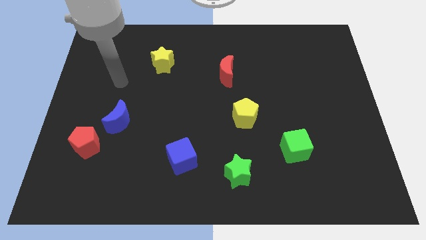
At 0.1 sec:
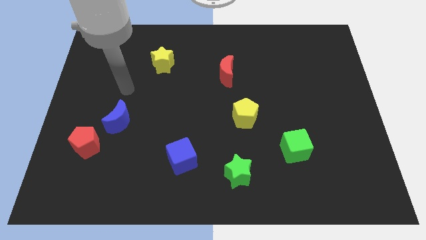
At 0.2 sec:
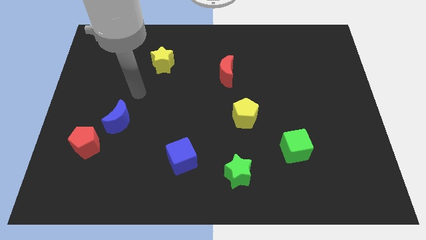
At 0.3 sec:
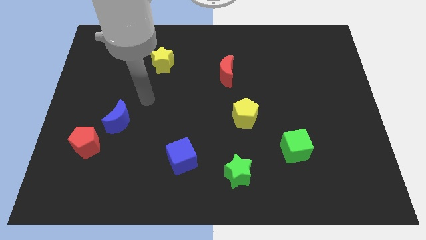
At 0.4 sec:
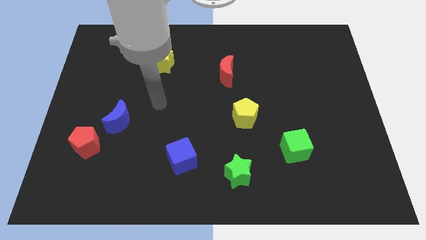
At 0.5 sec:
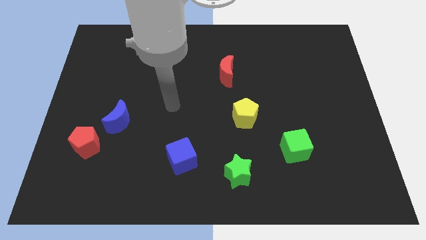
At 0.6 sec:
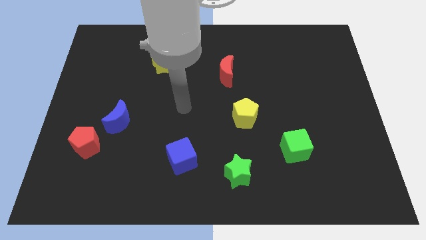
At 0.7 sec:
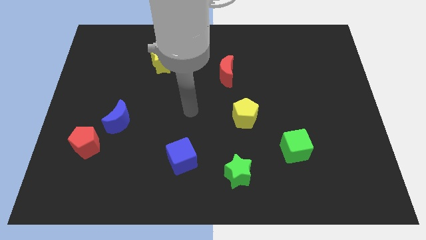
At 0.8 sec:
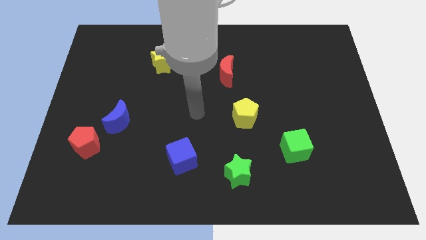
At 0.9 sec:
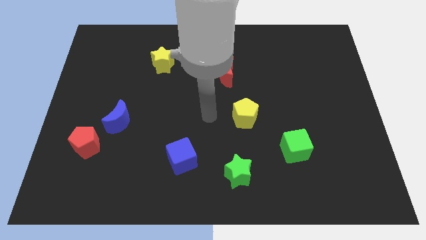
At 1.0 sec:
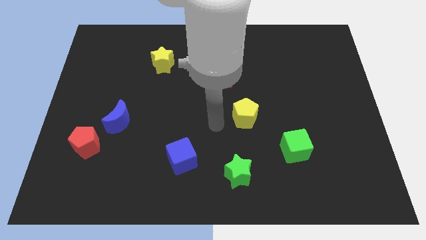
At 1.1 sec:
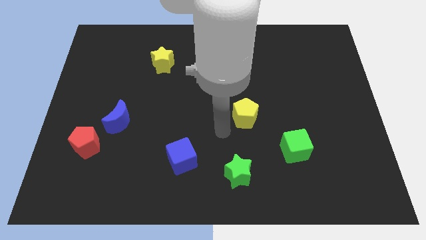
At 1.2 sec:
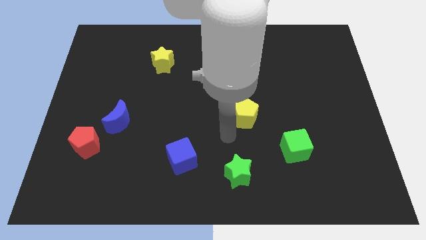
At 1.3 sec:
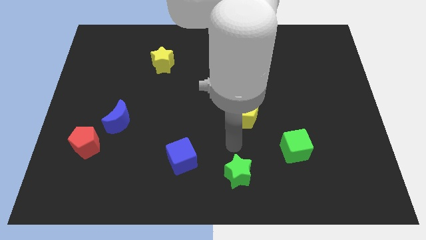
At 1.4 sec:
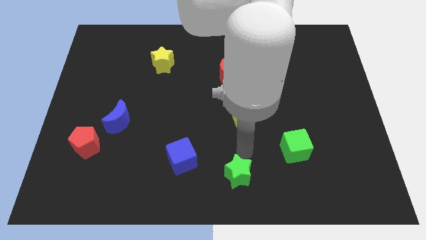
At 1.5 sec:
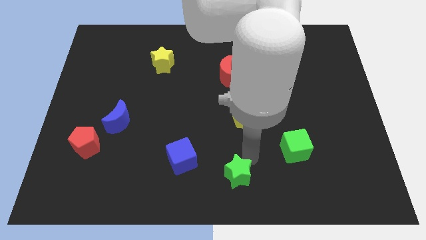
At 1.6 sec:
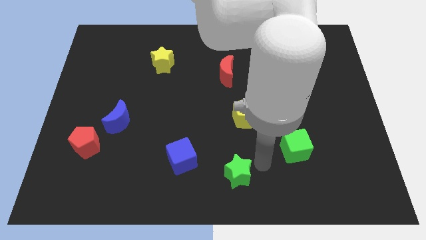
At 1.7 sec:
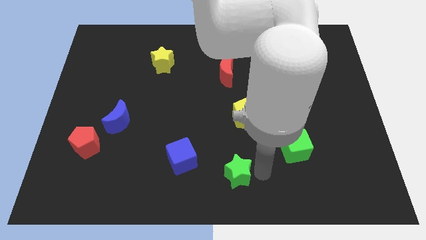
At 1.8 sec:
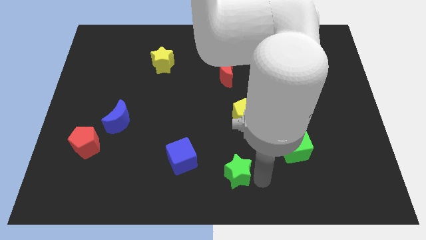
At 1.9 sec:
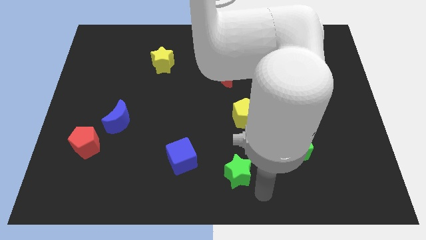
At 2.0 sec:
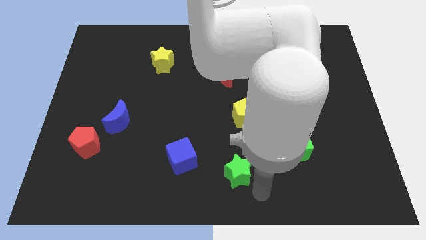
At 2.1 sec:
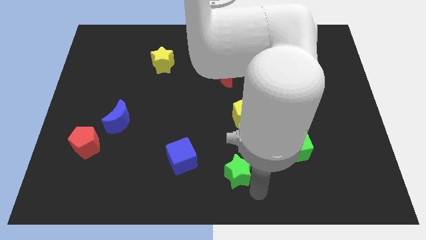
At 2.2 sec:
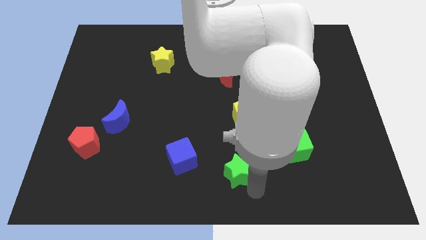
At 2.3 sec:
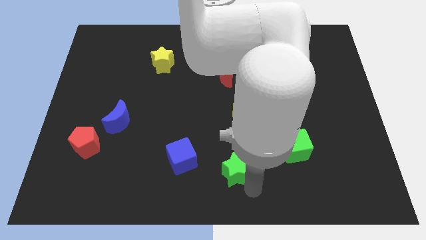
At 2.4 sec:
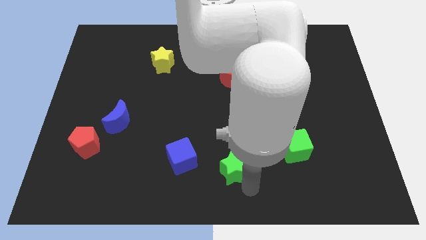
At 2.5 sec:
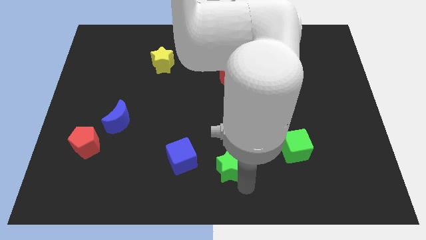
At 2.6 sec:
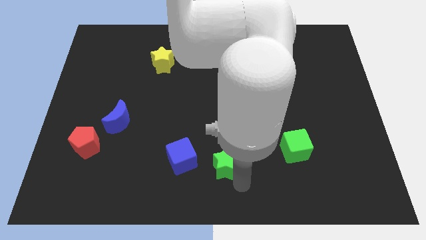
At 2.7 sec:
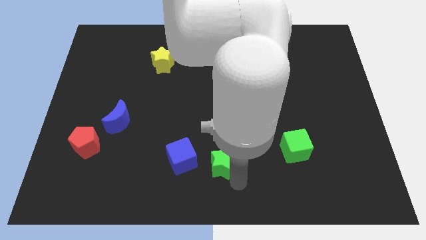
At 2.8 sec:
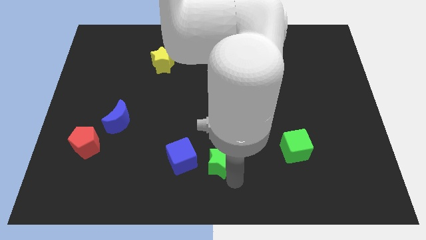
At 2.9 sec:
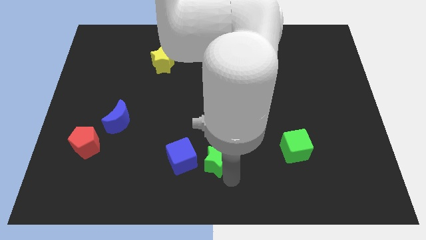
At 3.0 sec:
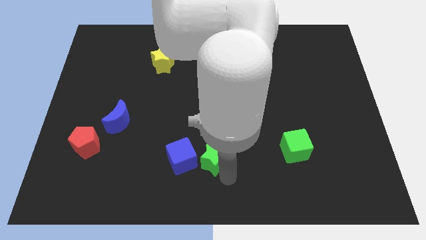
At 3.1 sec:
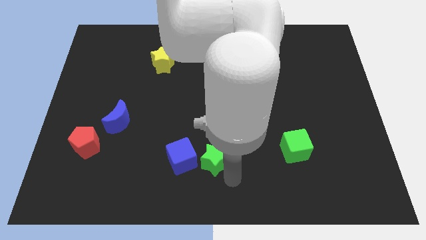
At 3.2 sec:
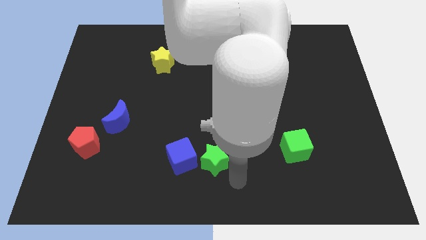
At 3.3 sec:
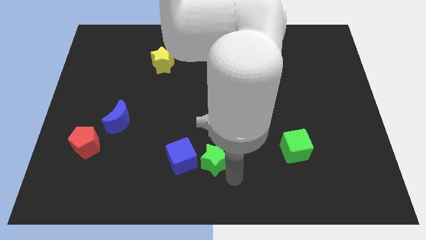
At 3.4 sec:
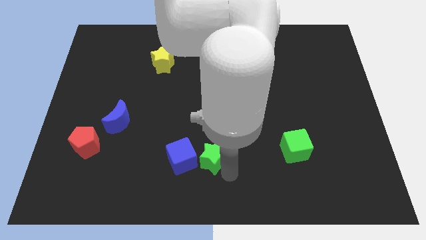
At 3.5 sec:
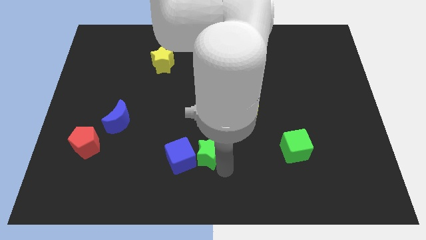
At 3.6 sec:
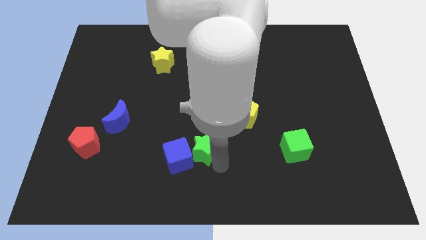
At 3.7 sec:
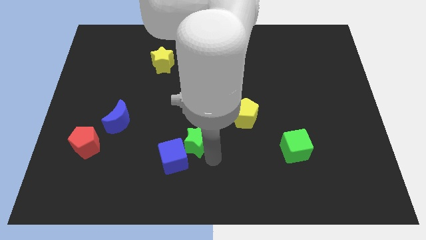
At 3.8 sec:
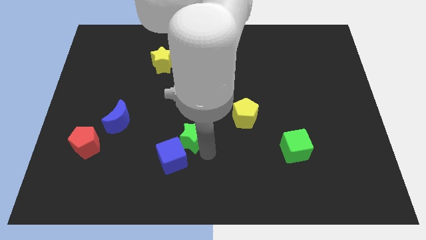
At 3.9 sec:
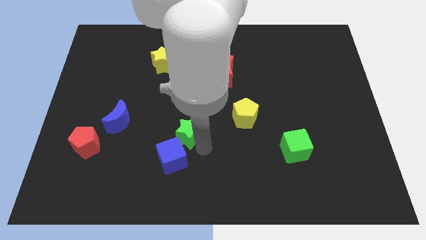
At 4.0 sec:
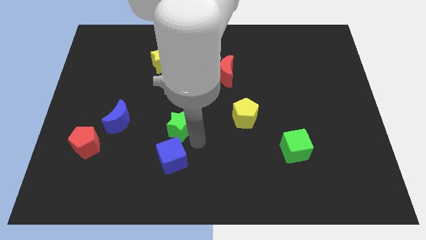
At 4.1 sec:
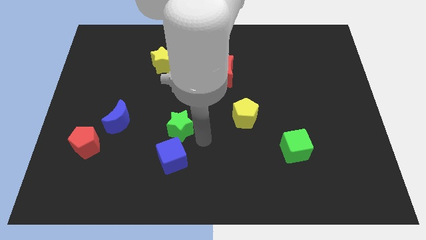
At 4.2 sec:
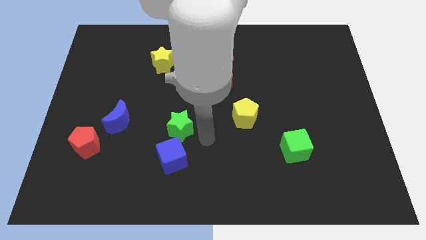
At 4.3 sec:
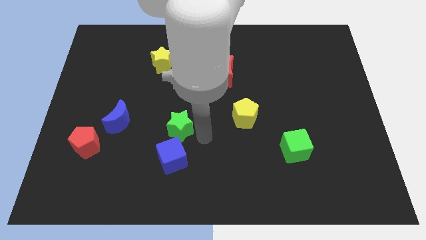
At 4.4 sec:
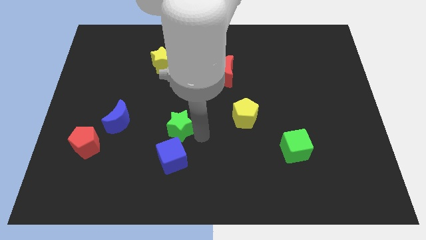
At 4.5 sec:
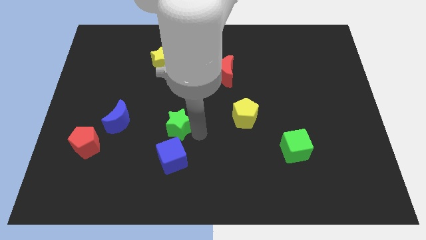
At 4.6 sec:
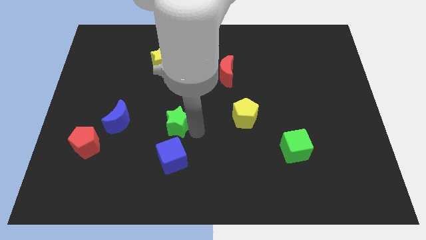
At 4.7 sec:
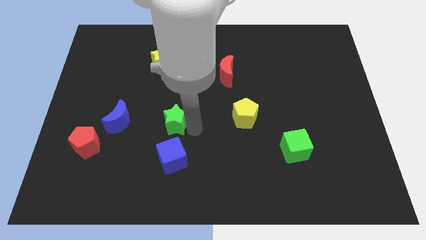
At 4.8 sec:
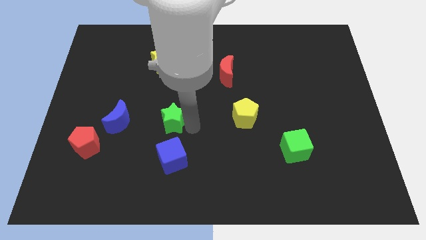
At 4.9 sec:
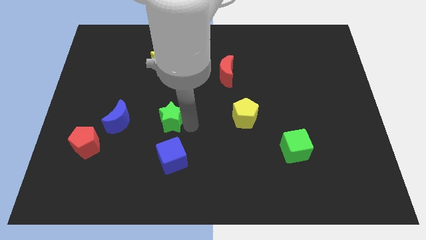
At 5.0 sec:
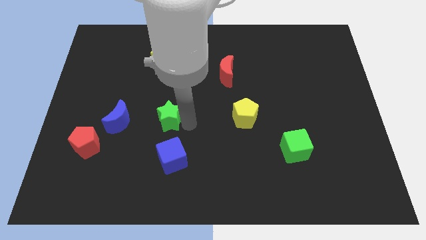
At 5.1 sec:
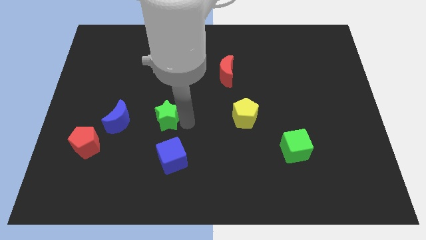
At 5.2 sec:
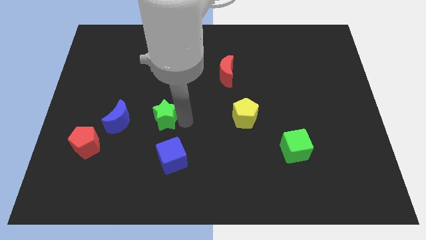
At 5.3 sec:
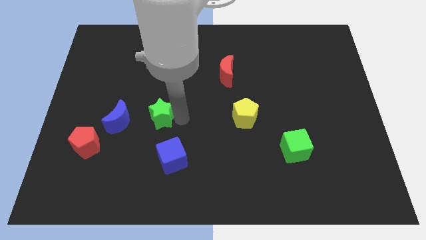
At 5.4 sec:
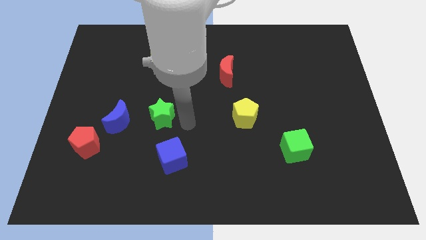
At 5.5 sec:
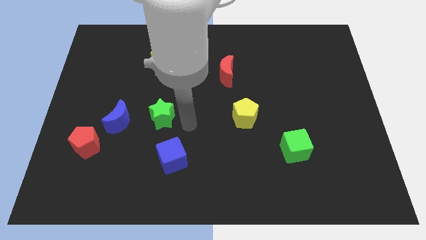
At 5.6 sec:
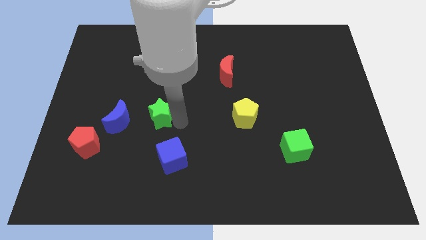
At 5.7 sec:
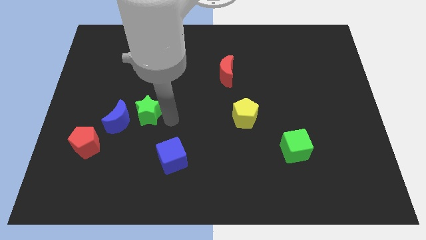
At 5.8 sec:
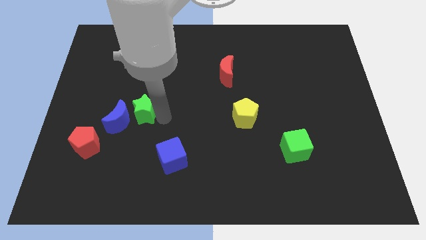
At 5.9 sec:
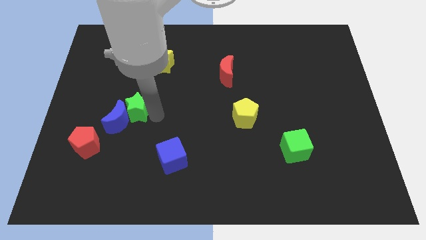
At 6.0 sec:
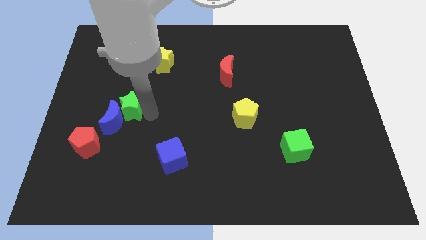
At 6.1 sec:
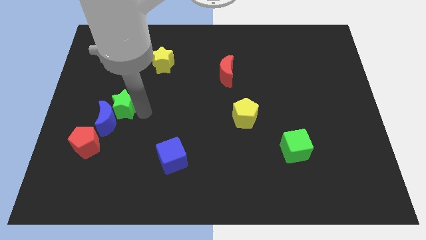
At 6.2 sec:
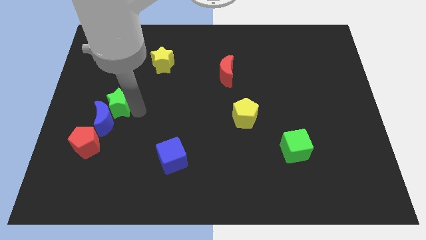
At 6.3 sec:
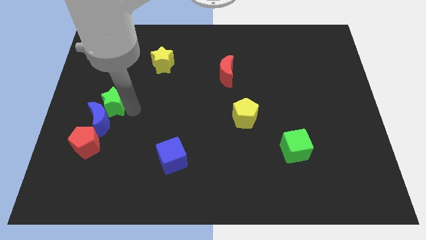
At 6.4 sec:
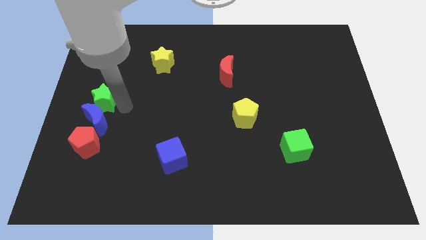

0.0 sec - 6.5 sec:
put the green star to the left side
